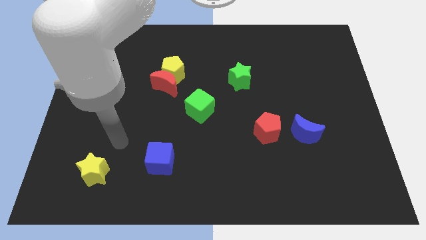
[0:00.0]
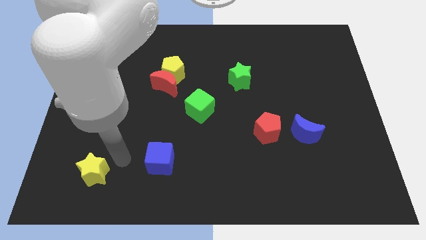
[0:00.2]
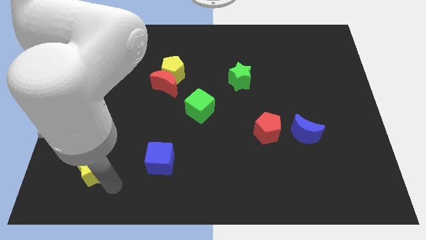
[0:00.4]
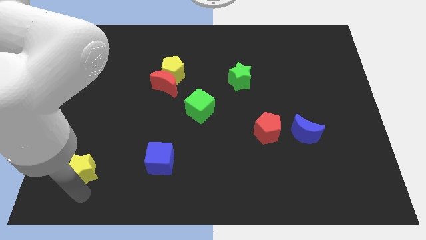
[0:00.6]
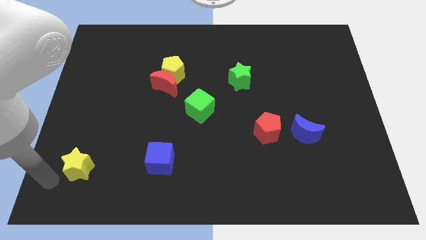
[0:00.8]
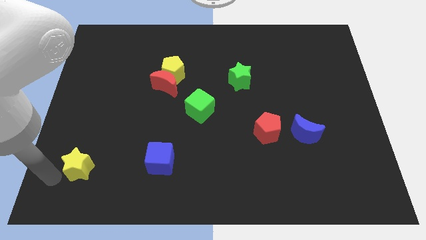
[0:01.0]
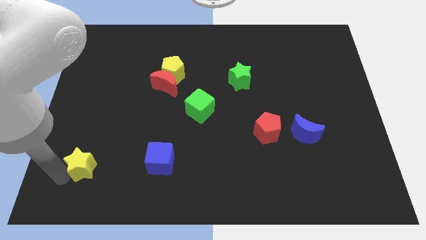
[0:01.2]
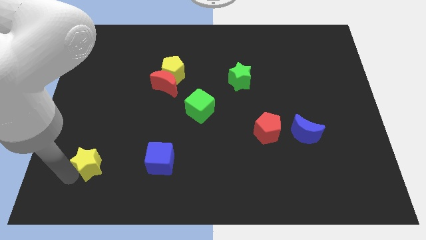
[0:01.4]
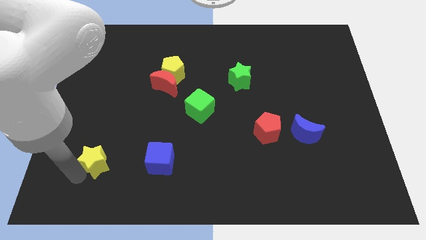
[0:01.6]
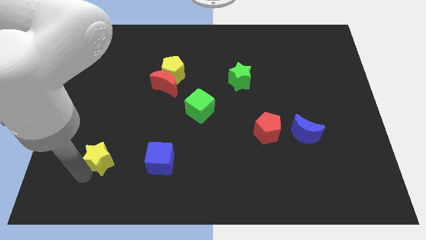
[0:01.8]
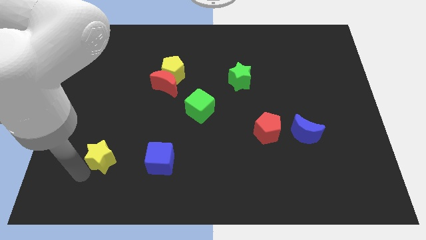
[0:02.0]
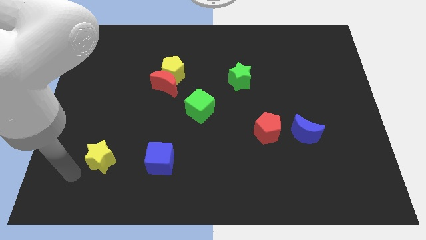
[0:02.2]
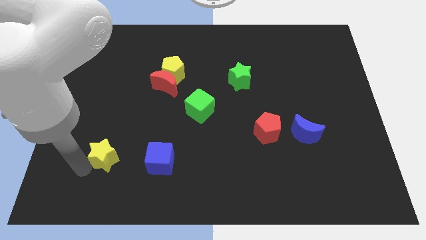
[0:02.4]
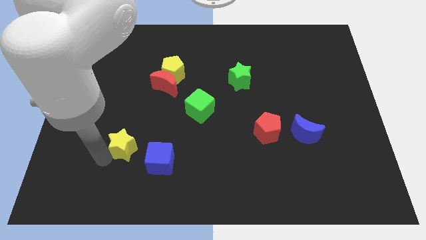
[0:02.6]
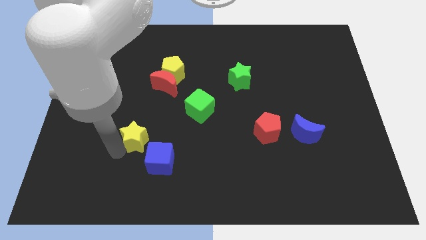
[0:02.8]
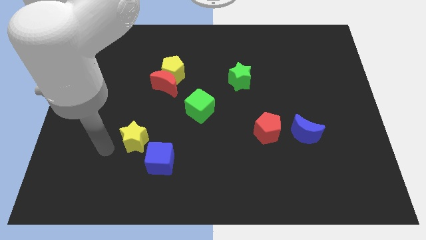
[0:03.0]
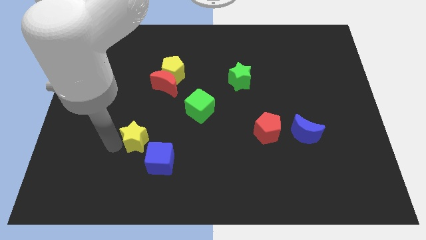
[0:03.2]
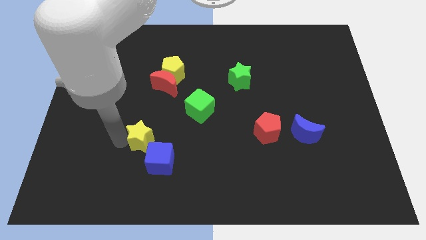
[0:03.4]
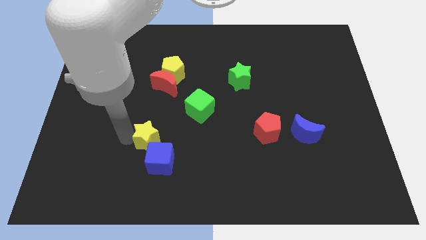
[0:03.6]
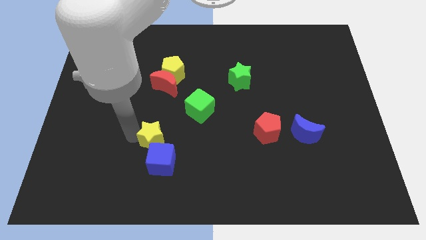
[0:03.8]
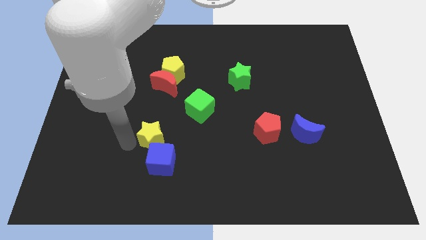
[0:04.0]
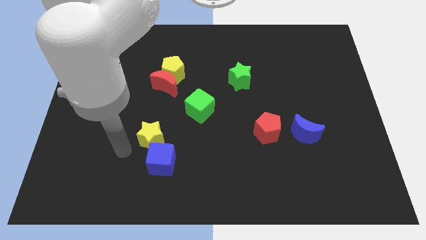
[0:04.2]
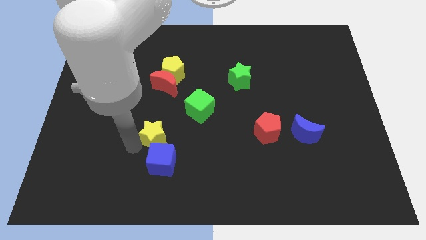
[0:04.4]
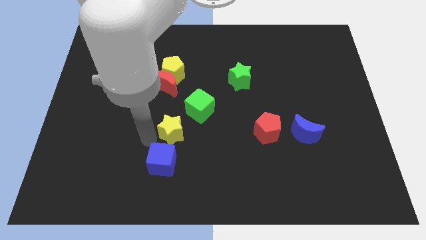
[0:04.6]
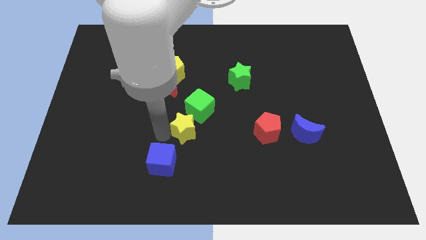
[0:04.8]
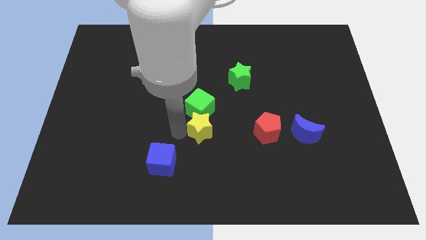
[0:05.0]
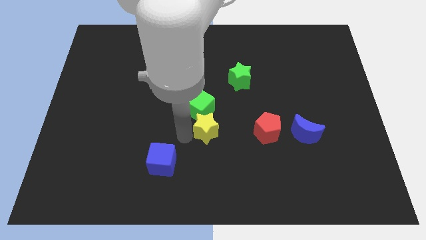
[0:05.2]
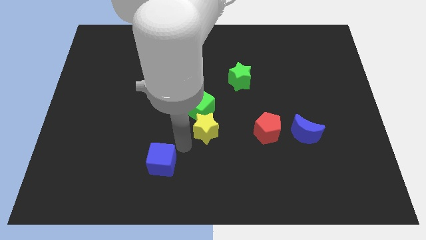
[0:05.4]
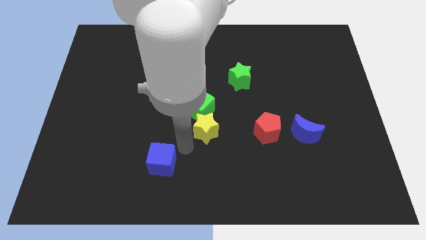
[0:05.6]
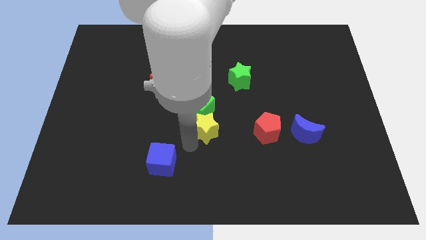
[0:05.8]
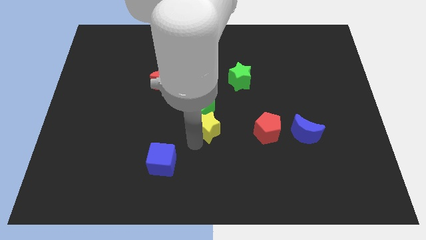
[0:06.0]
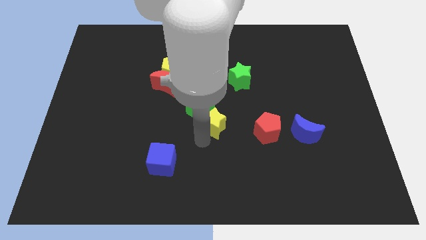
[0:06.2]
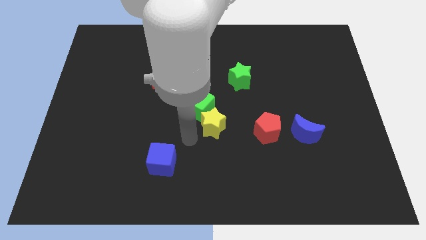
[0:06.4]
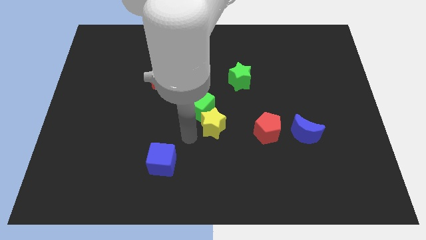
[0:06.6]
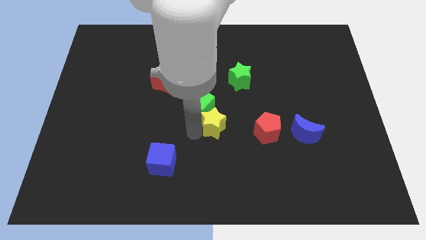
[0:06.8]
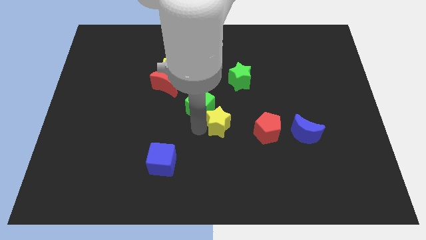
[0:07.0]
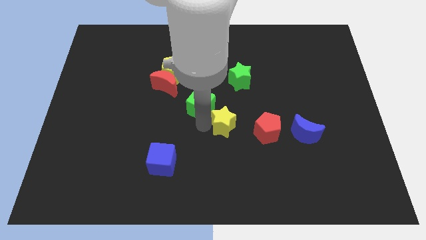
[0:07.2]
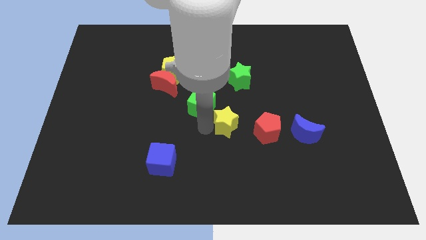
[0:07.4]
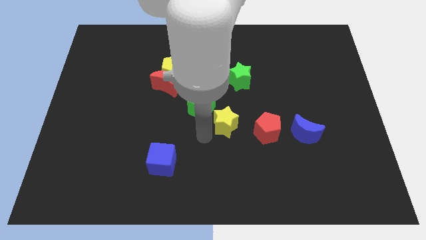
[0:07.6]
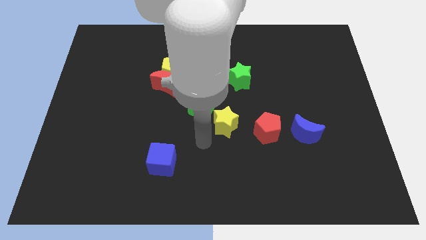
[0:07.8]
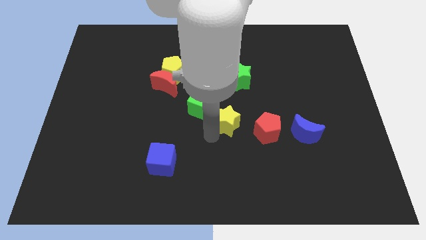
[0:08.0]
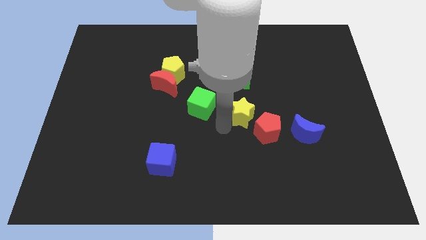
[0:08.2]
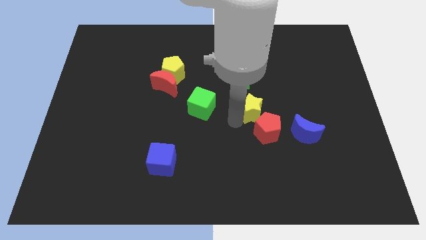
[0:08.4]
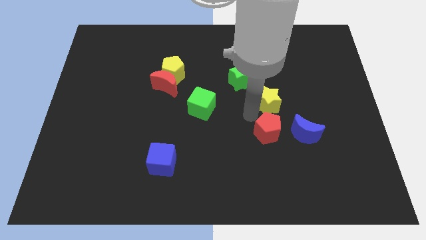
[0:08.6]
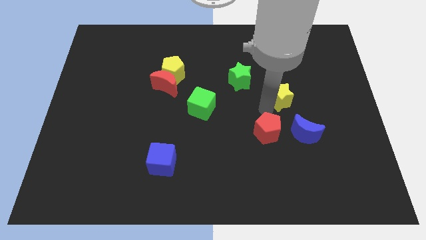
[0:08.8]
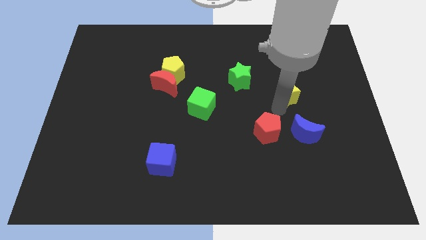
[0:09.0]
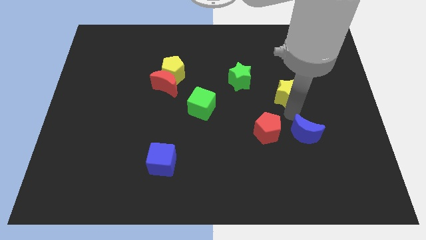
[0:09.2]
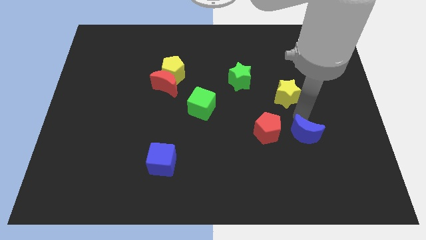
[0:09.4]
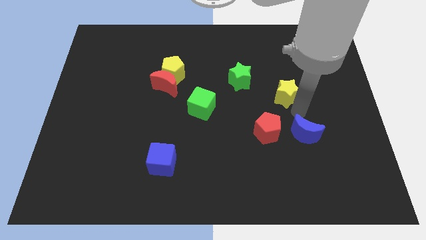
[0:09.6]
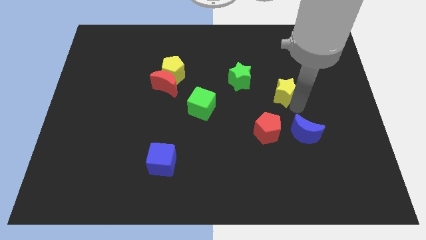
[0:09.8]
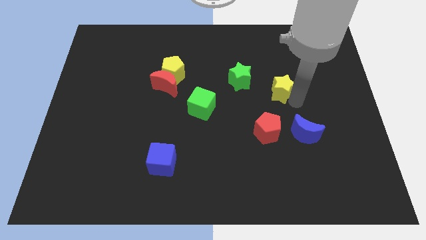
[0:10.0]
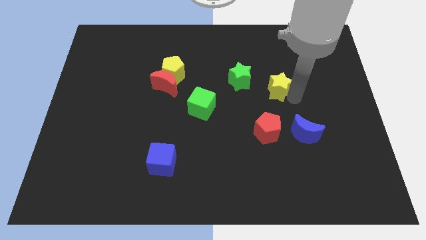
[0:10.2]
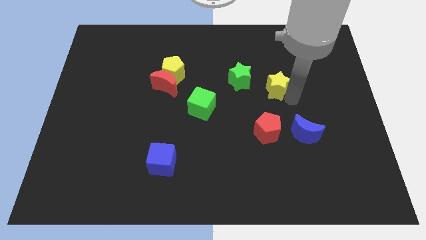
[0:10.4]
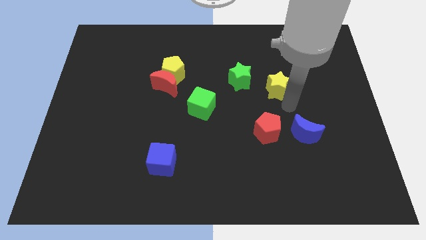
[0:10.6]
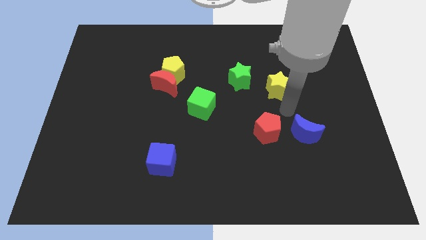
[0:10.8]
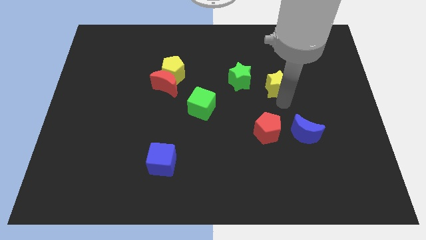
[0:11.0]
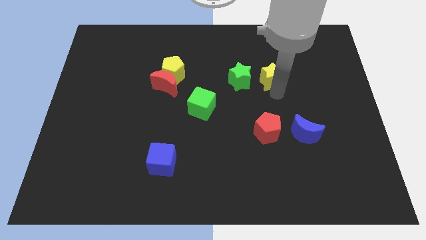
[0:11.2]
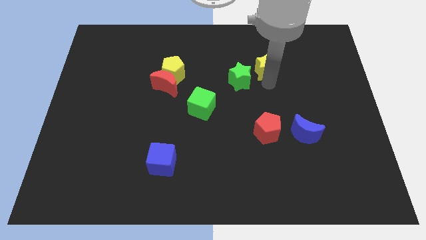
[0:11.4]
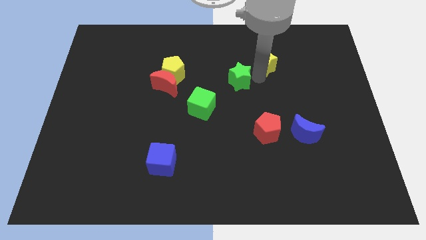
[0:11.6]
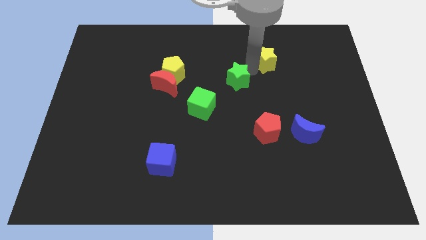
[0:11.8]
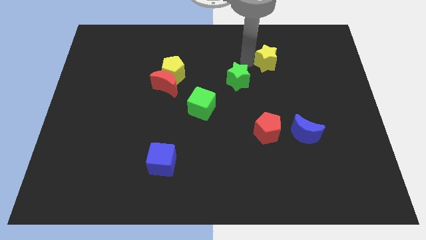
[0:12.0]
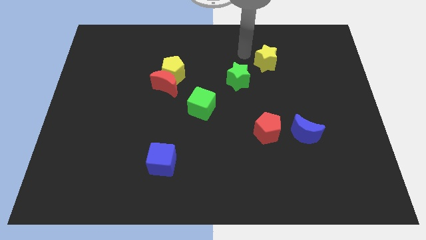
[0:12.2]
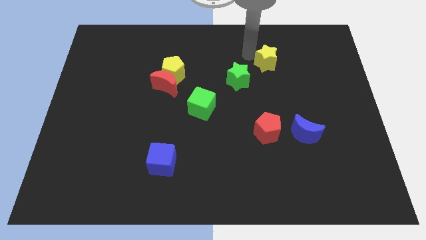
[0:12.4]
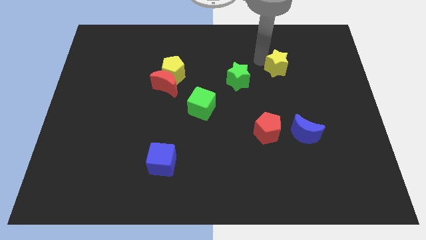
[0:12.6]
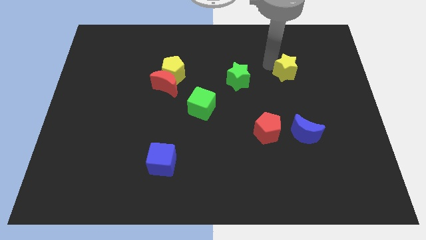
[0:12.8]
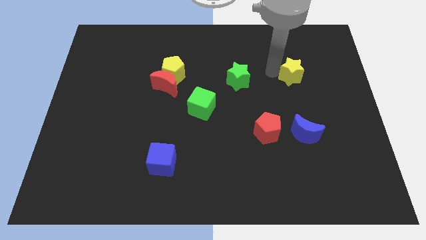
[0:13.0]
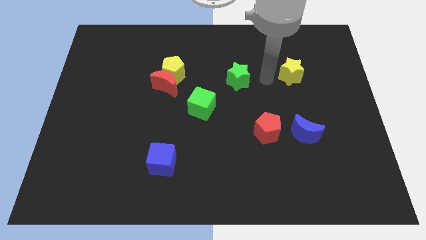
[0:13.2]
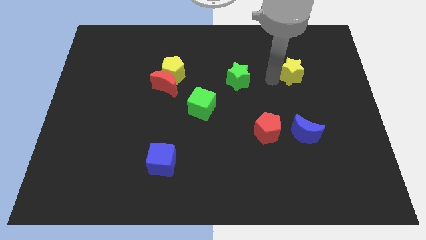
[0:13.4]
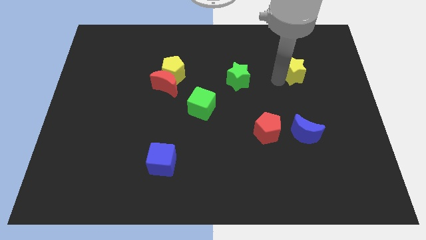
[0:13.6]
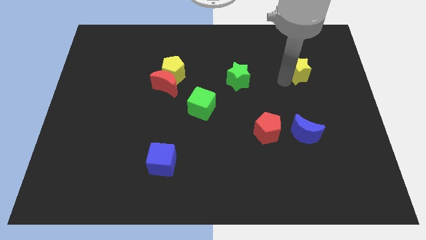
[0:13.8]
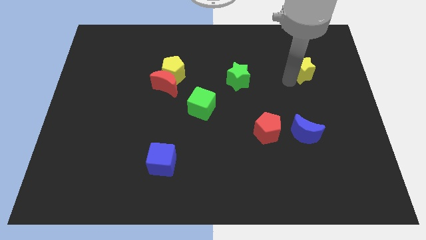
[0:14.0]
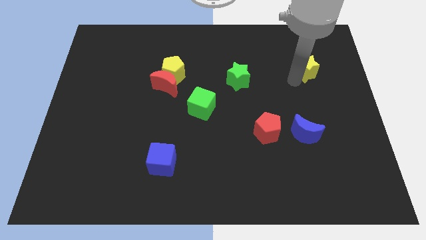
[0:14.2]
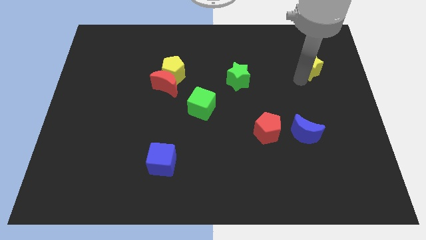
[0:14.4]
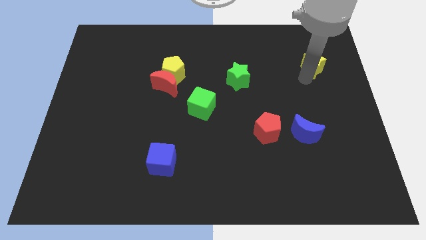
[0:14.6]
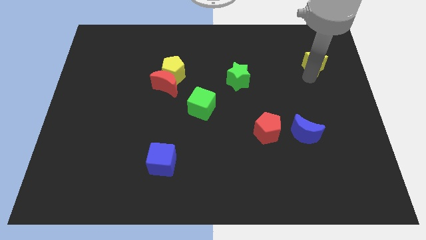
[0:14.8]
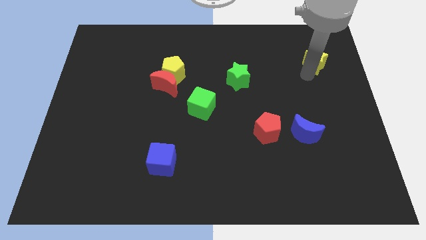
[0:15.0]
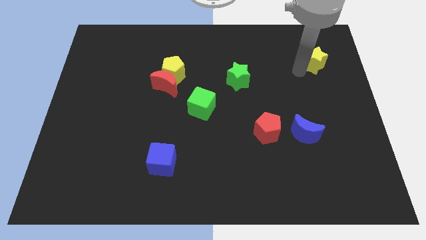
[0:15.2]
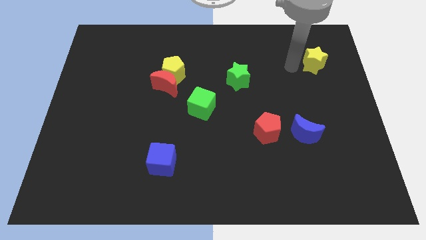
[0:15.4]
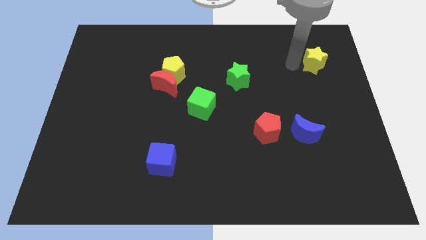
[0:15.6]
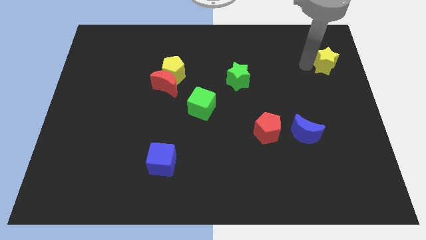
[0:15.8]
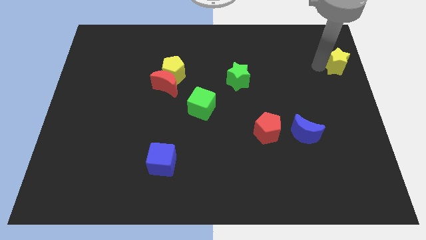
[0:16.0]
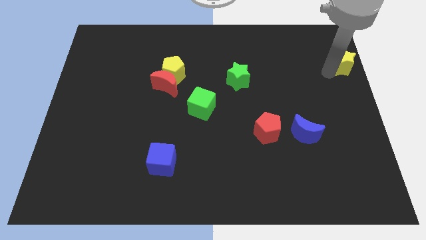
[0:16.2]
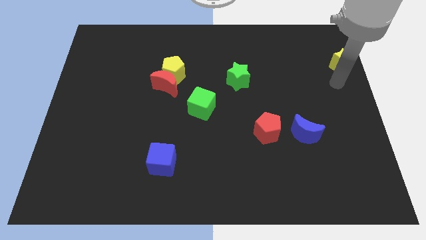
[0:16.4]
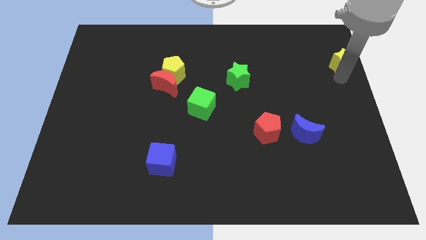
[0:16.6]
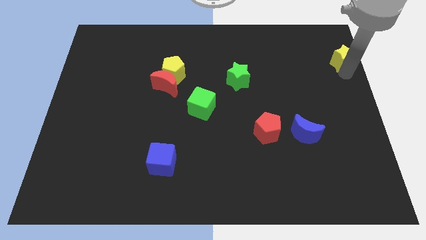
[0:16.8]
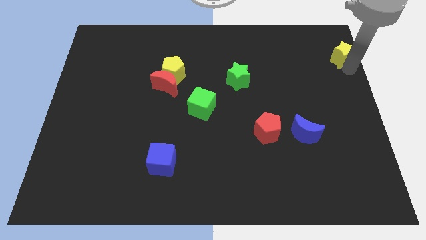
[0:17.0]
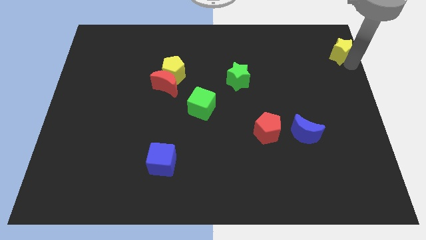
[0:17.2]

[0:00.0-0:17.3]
push the yellow star to the upper right corner
